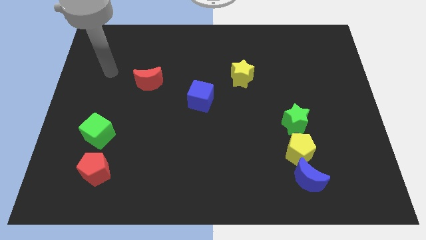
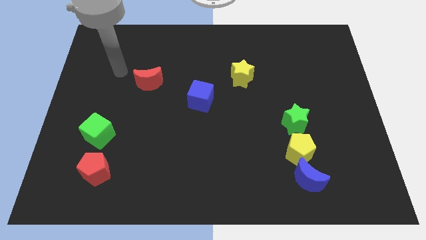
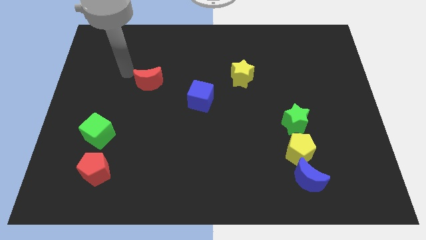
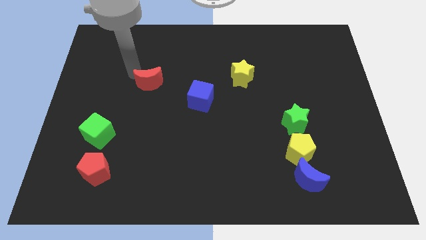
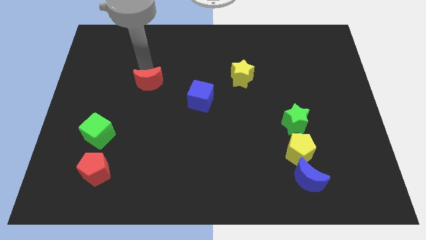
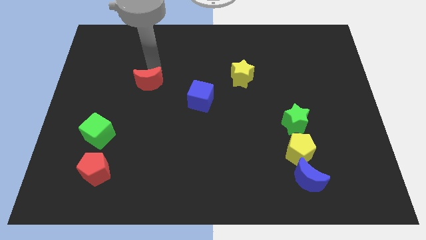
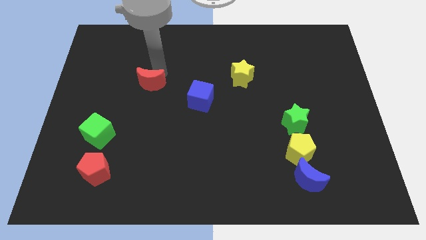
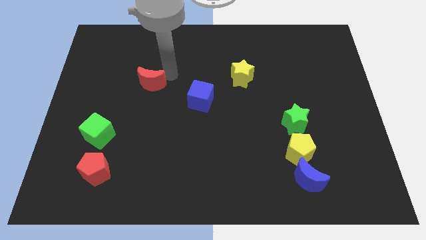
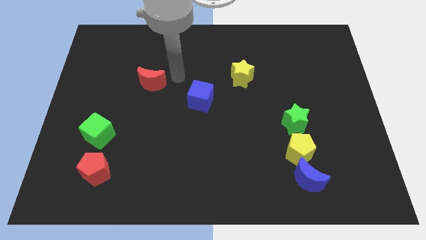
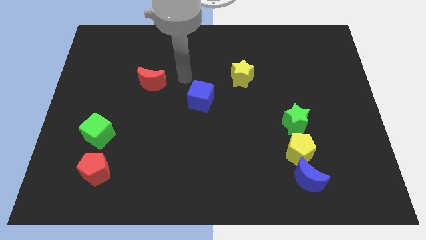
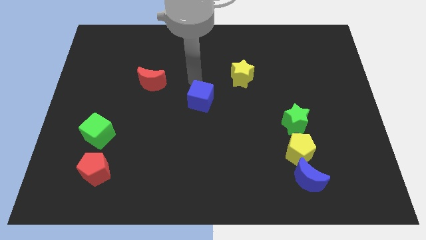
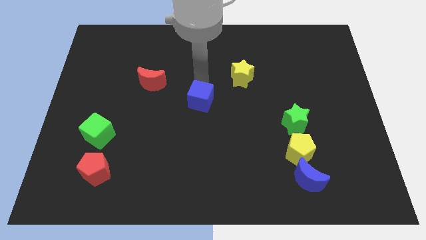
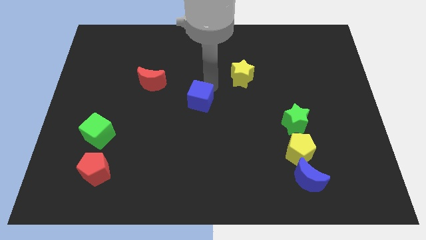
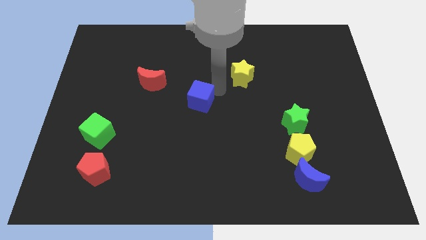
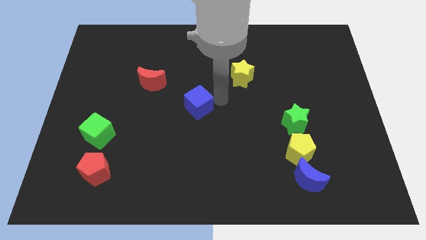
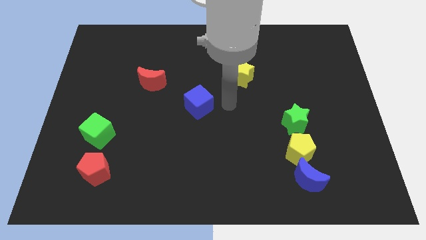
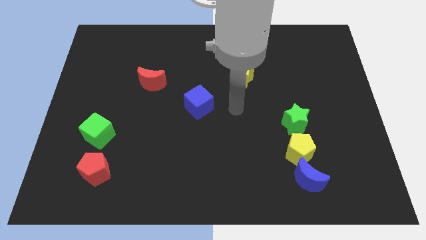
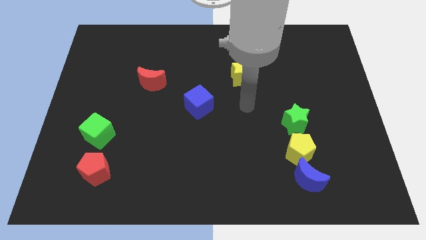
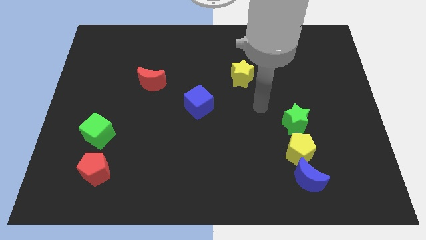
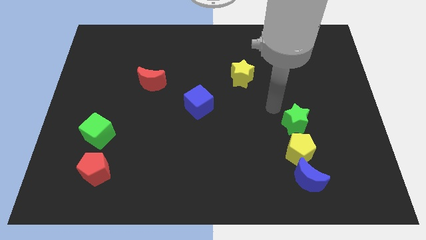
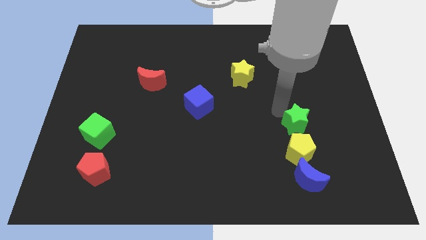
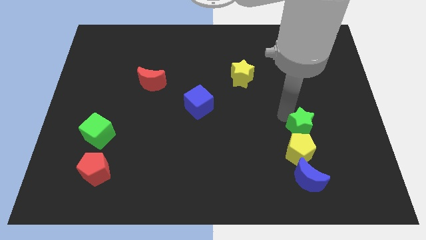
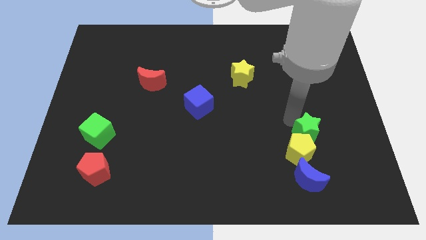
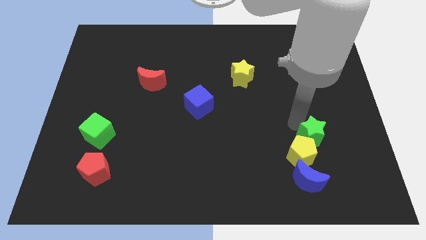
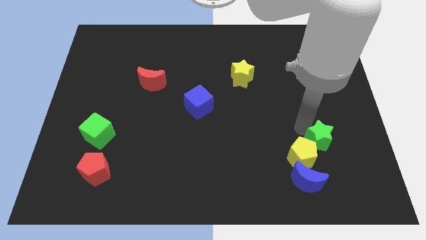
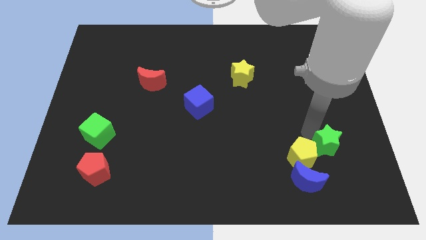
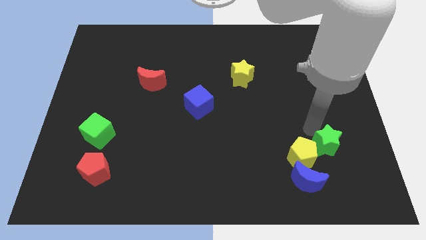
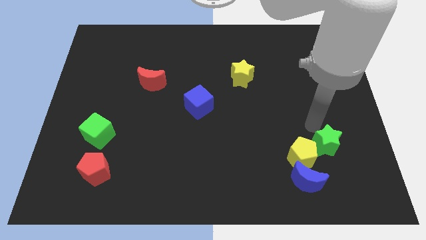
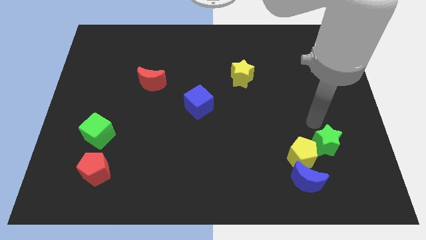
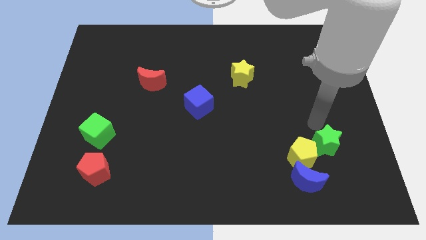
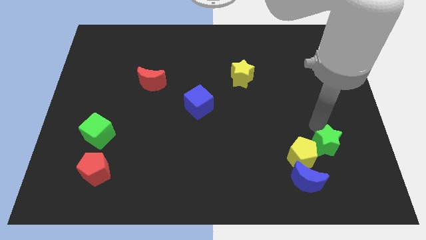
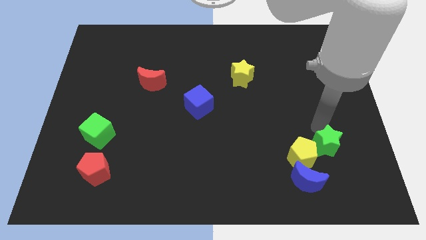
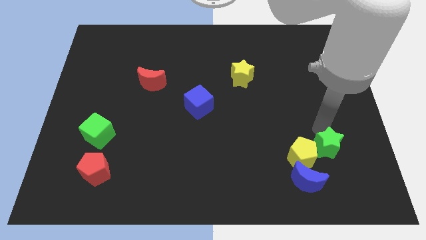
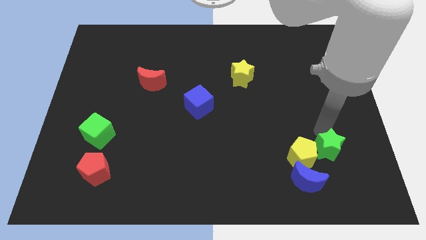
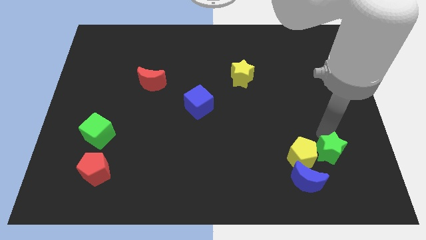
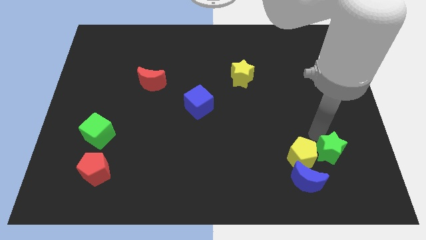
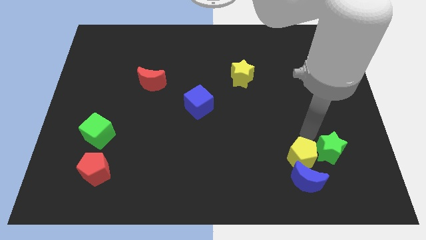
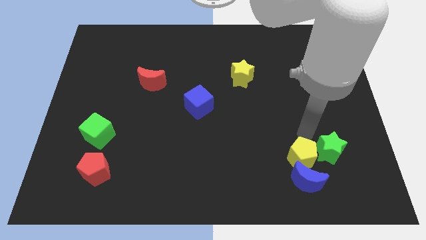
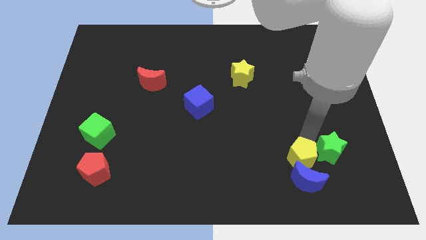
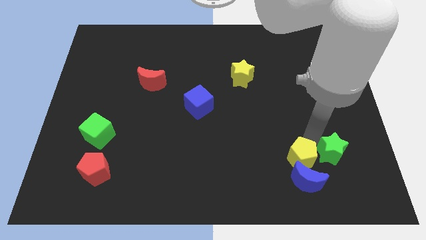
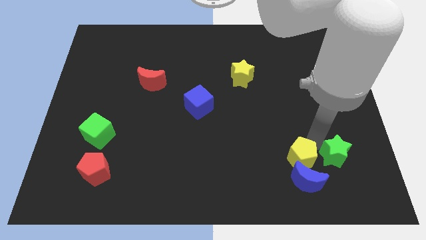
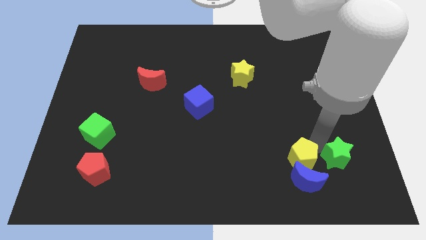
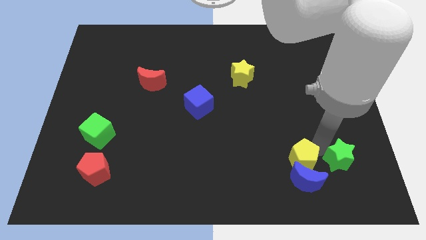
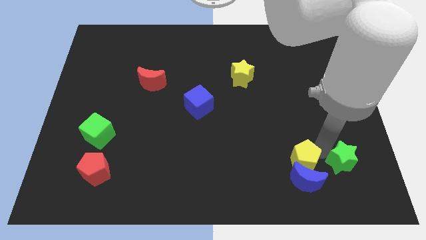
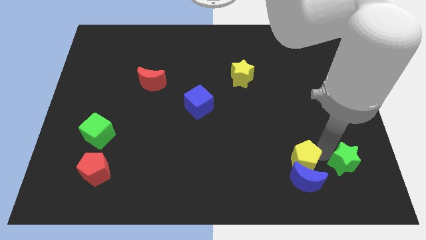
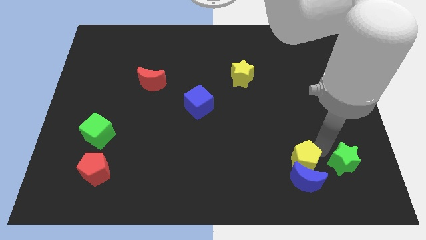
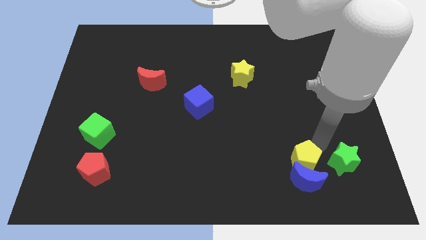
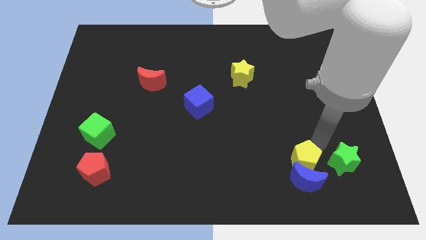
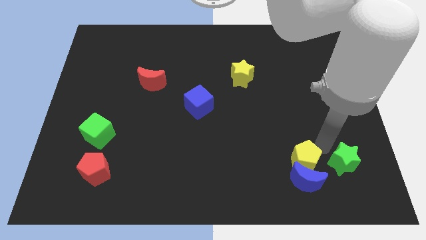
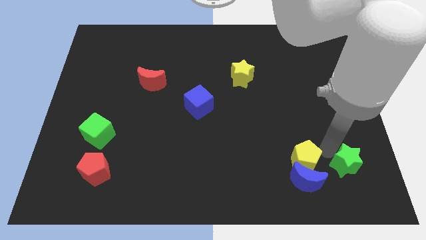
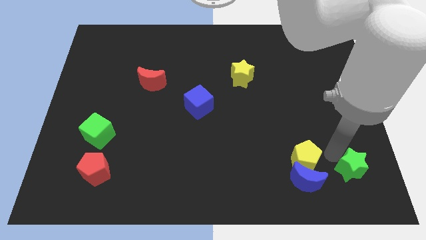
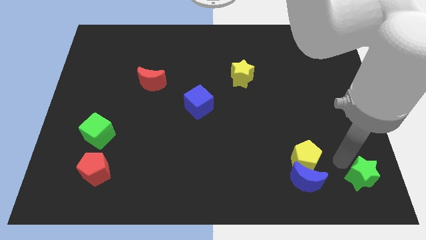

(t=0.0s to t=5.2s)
move the green star to the bottom right corner
